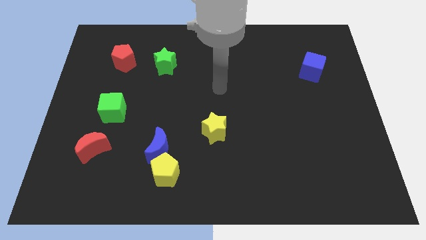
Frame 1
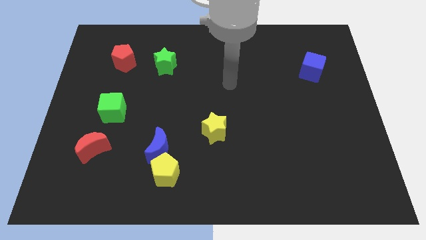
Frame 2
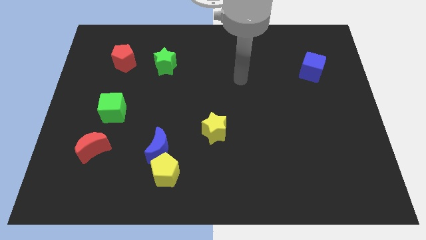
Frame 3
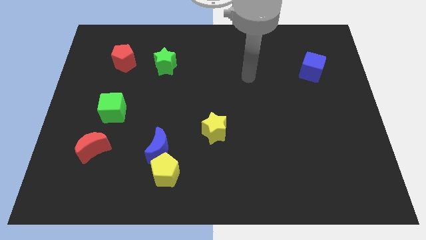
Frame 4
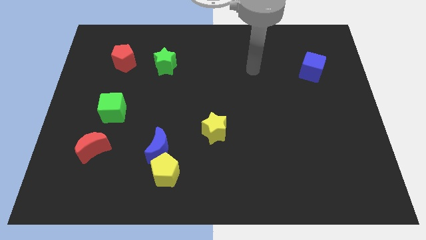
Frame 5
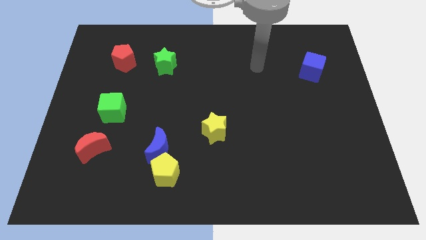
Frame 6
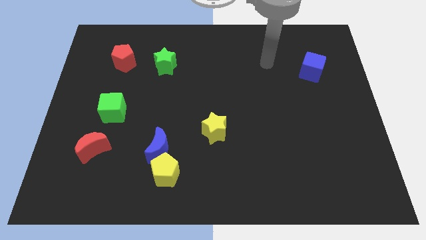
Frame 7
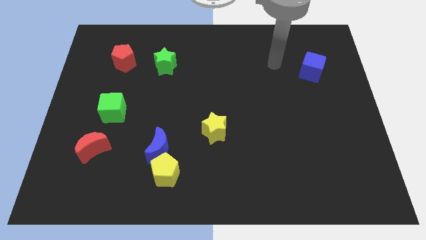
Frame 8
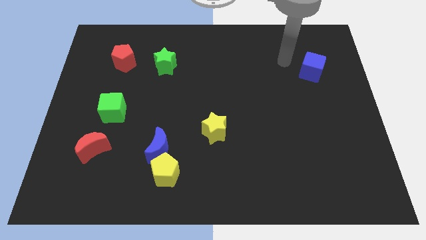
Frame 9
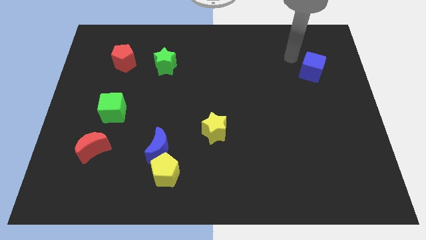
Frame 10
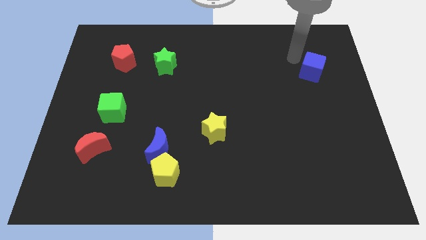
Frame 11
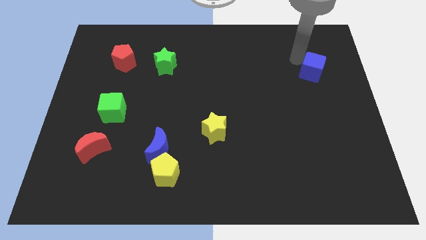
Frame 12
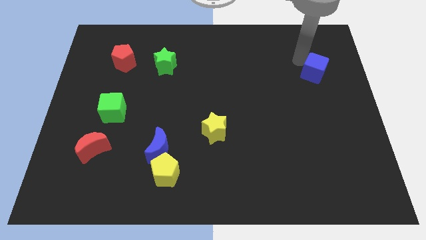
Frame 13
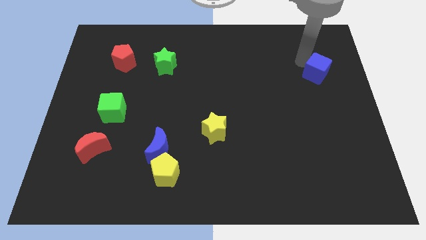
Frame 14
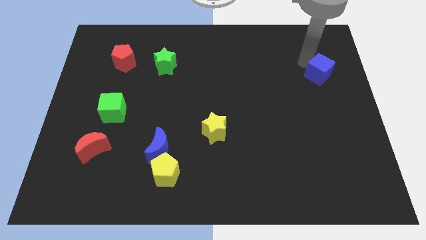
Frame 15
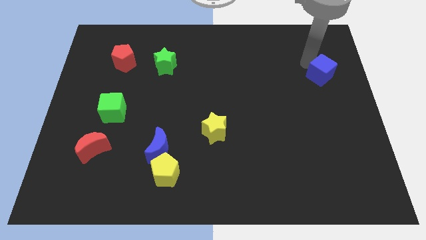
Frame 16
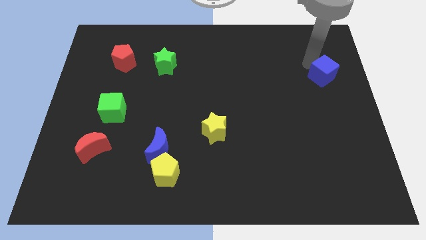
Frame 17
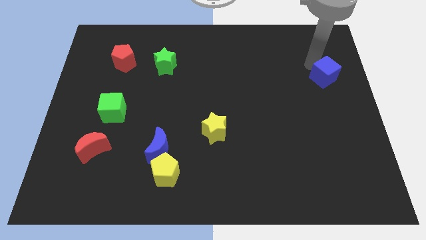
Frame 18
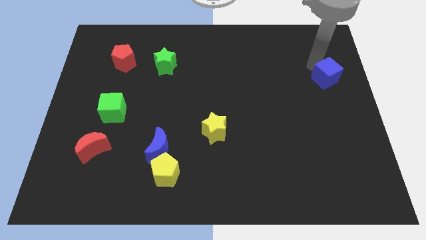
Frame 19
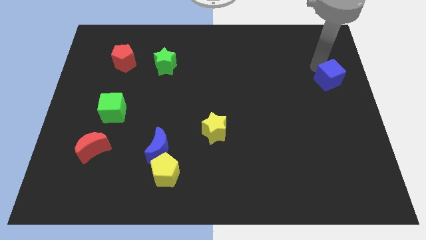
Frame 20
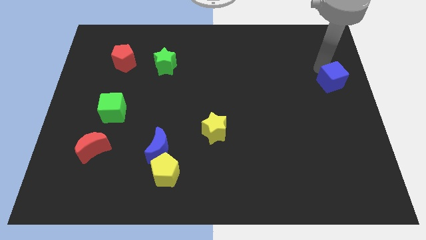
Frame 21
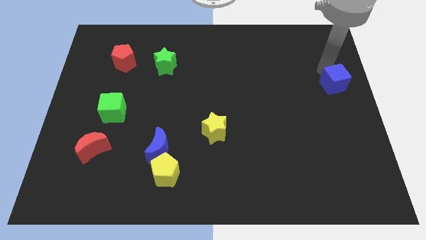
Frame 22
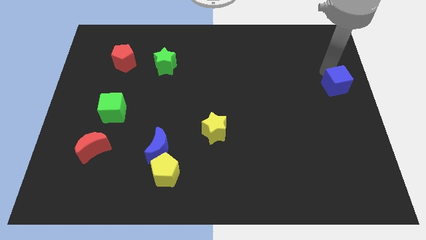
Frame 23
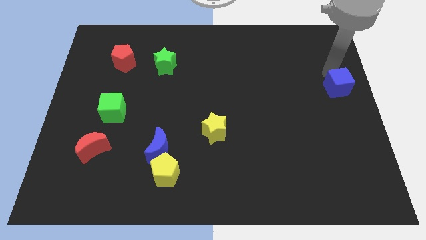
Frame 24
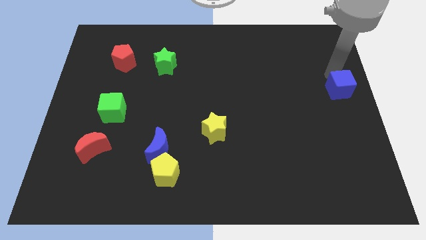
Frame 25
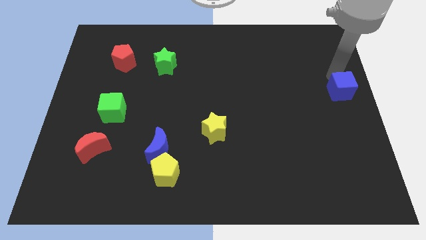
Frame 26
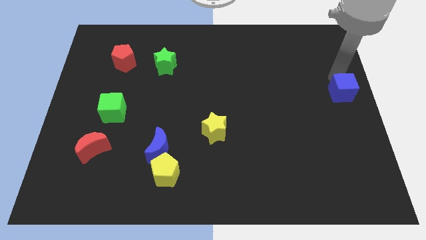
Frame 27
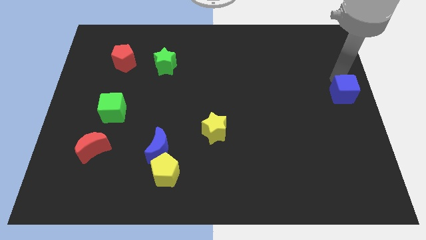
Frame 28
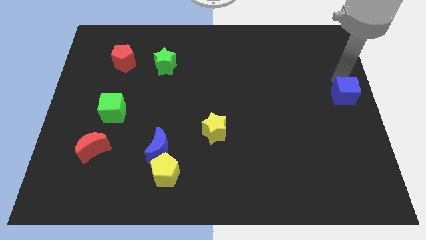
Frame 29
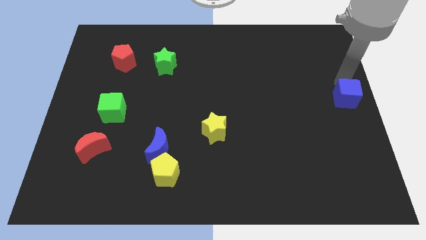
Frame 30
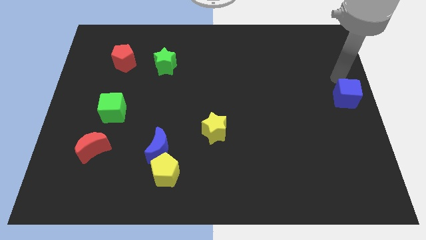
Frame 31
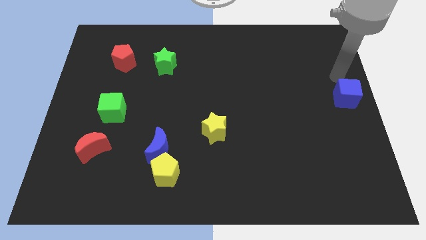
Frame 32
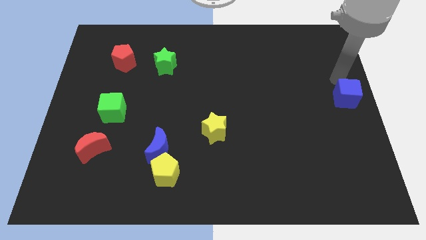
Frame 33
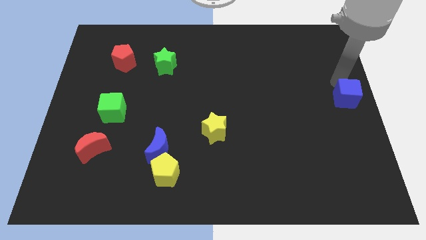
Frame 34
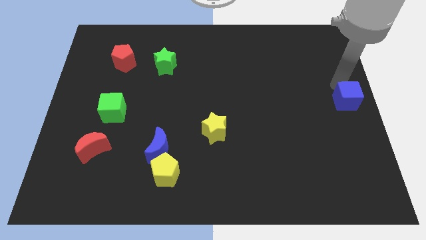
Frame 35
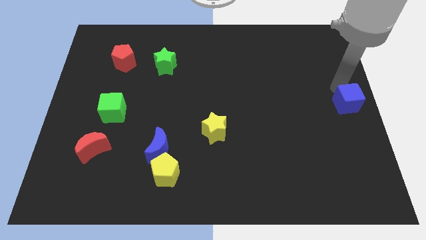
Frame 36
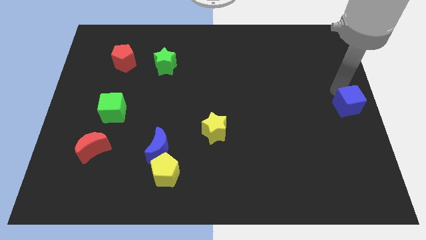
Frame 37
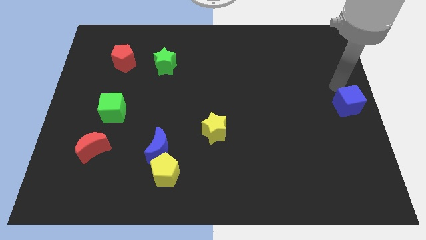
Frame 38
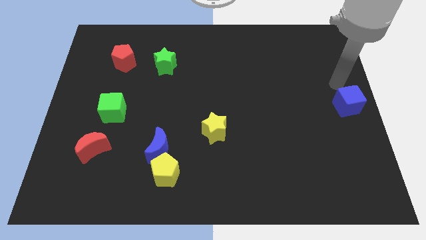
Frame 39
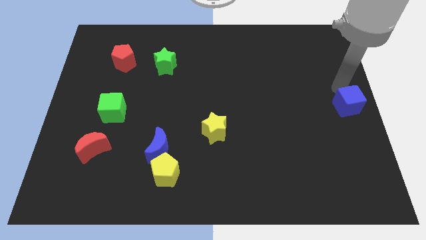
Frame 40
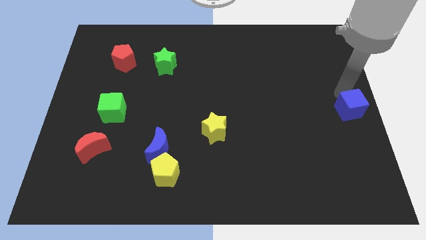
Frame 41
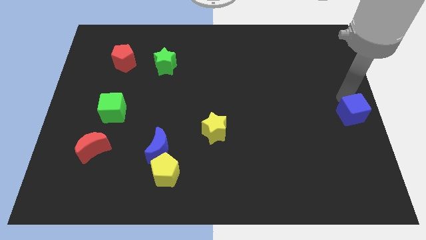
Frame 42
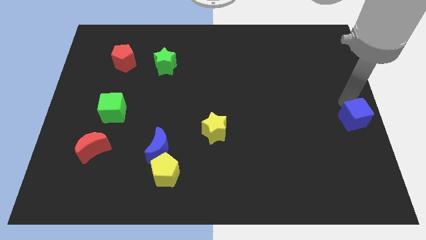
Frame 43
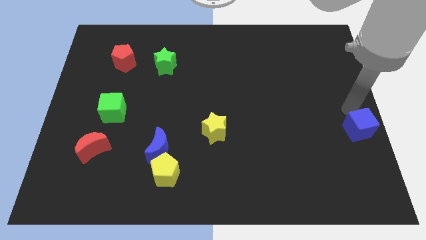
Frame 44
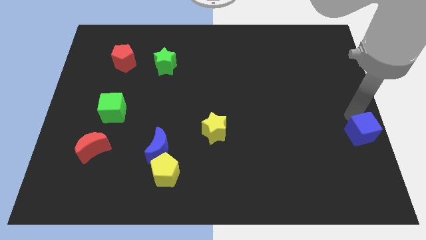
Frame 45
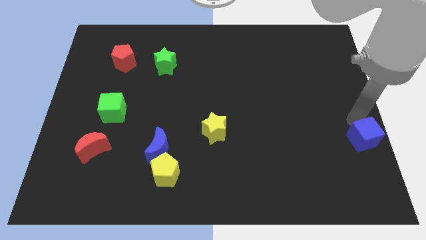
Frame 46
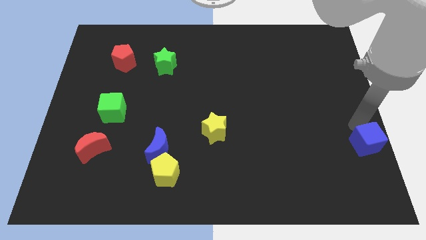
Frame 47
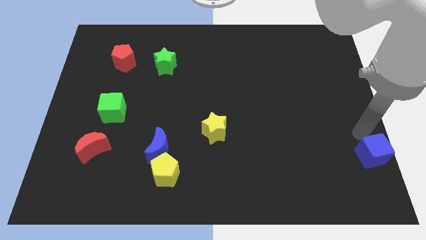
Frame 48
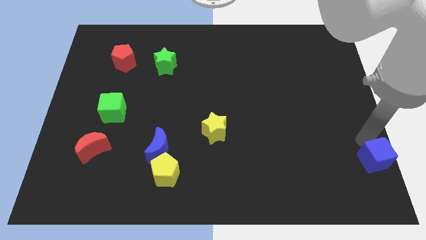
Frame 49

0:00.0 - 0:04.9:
put the blue cube to the bottom right corner

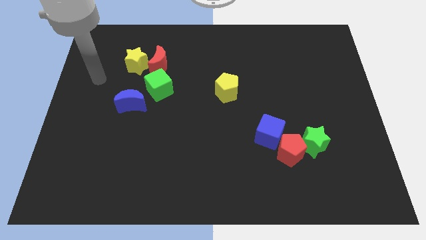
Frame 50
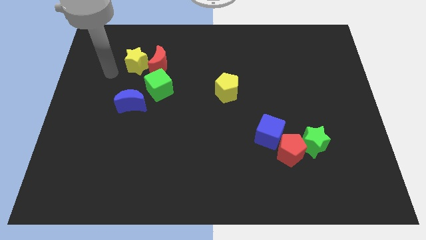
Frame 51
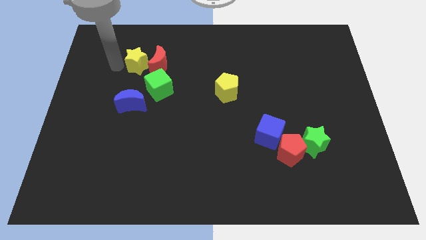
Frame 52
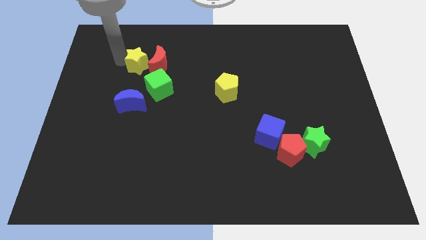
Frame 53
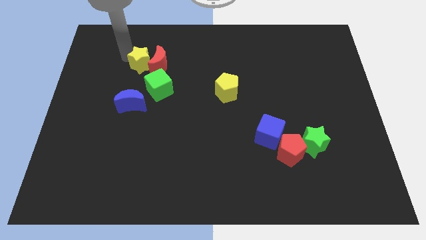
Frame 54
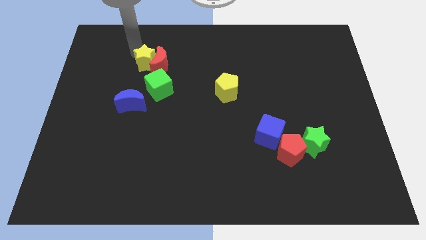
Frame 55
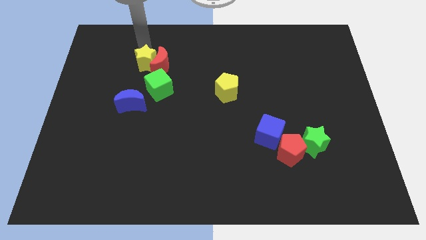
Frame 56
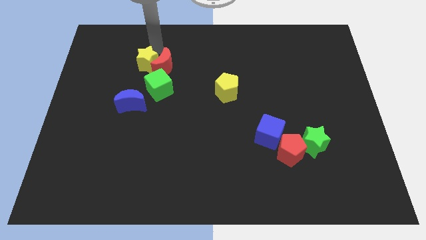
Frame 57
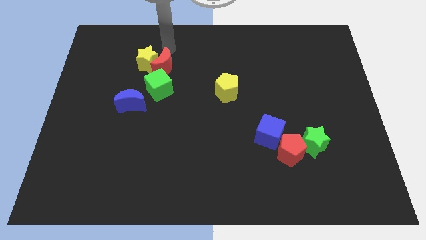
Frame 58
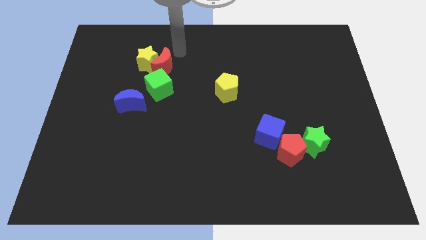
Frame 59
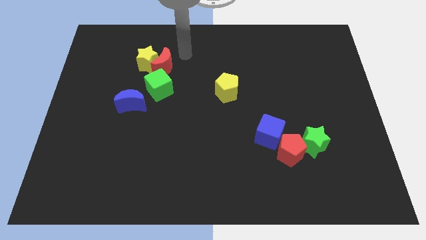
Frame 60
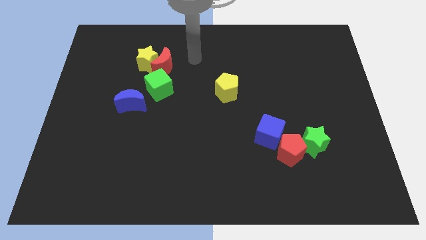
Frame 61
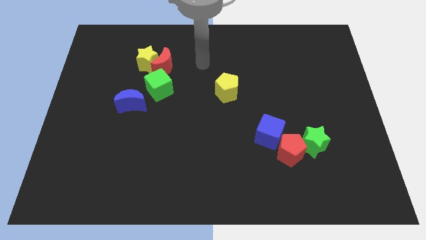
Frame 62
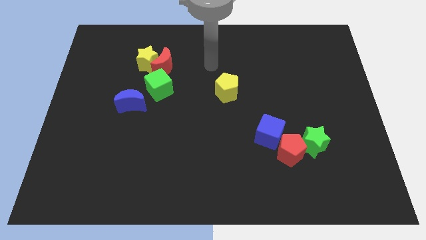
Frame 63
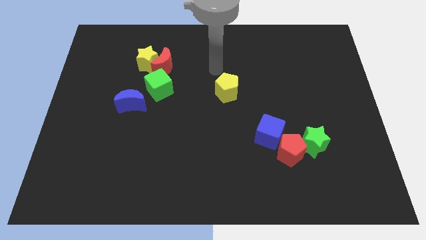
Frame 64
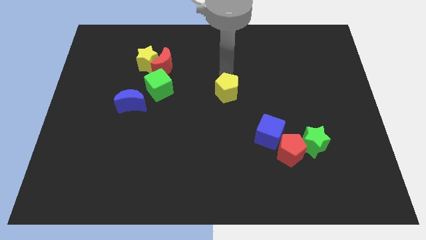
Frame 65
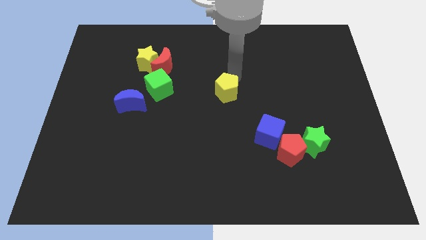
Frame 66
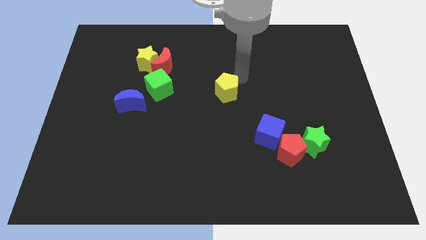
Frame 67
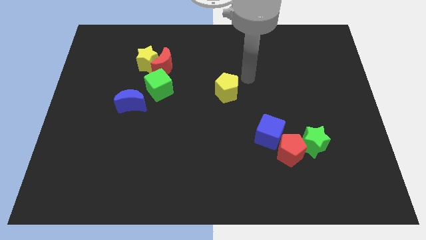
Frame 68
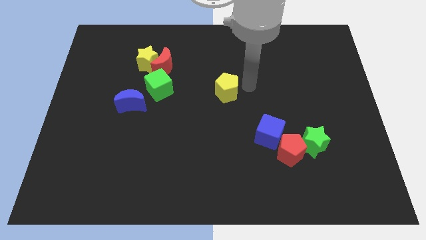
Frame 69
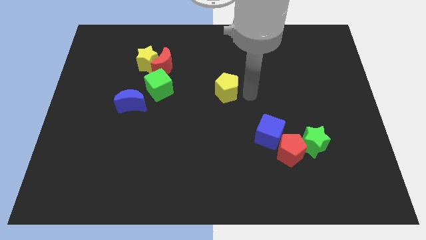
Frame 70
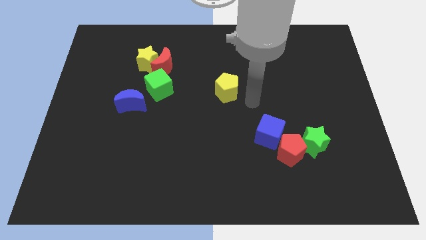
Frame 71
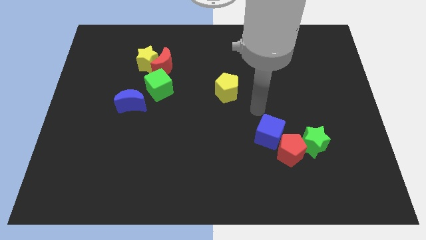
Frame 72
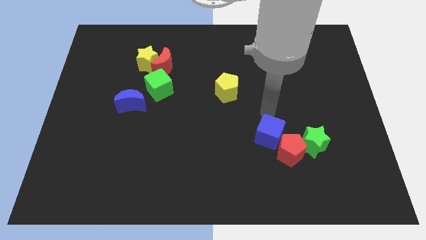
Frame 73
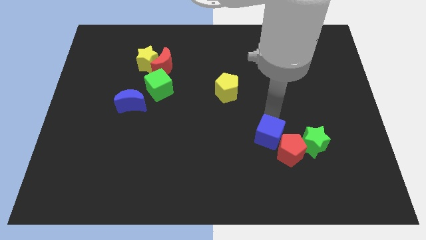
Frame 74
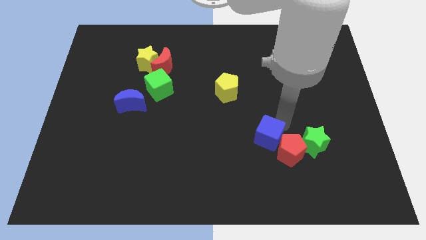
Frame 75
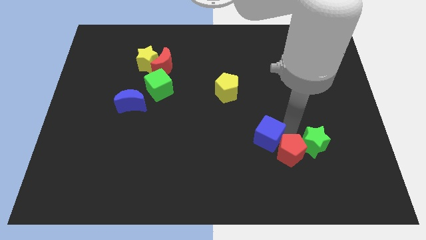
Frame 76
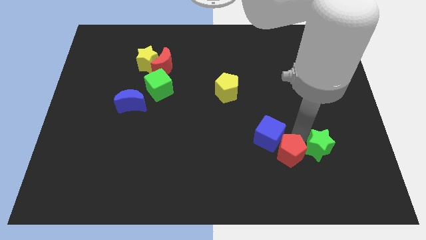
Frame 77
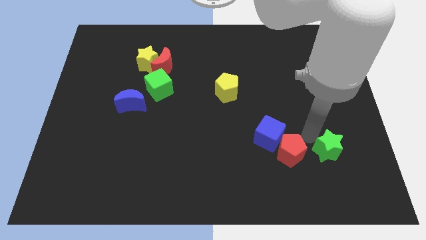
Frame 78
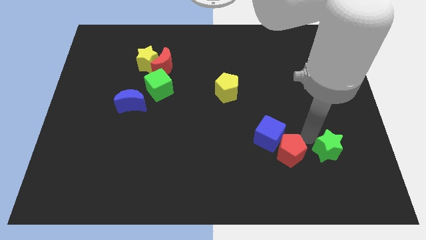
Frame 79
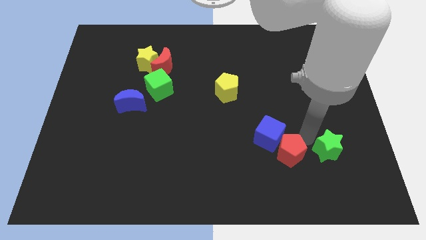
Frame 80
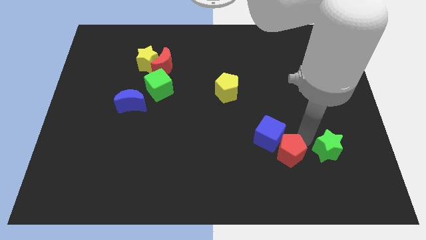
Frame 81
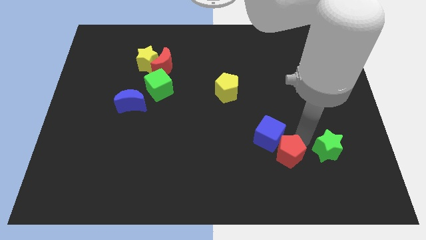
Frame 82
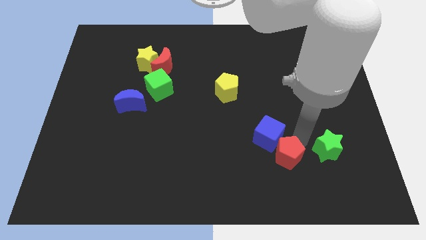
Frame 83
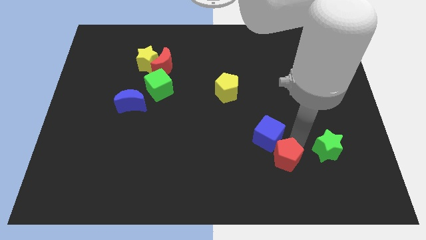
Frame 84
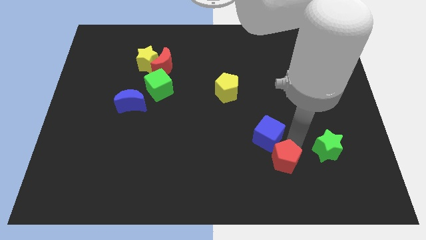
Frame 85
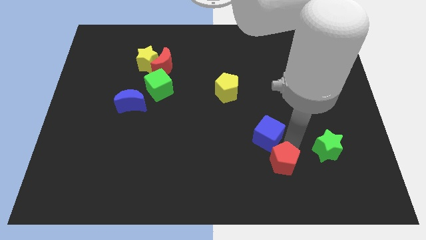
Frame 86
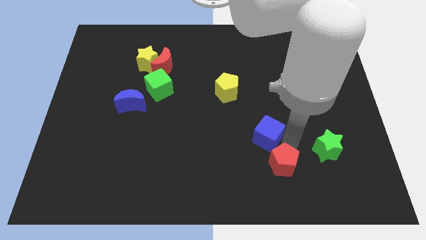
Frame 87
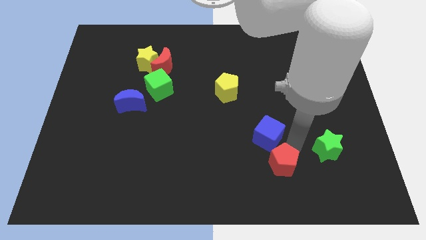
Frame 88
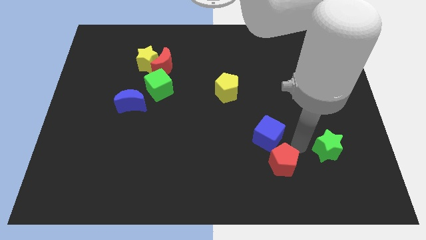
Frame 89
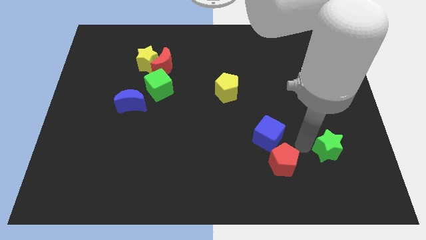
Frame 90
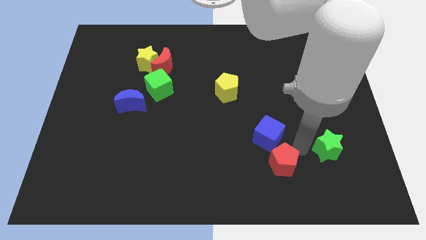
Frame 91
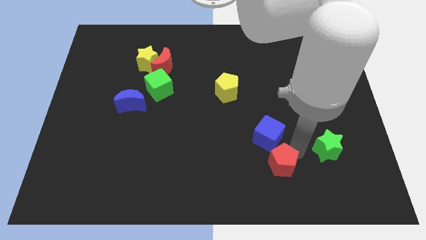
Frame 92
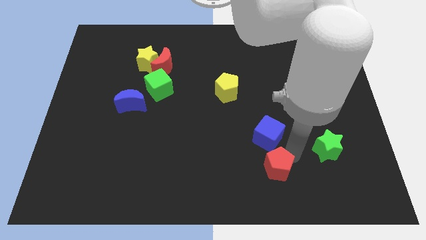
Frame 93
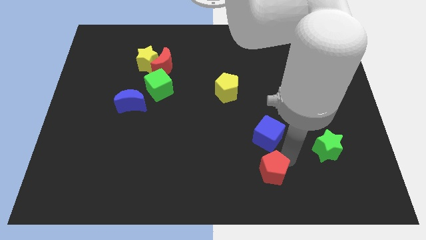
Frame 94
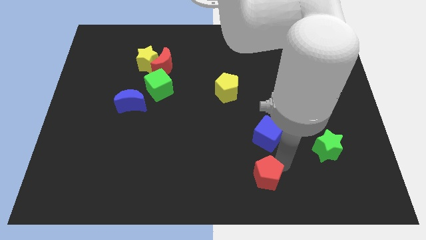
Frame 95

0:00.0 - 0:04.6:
push the red pentagon to the bottom
